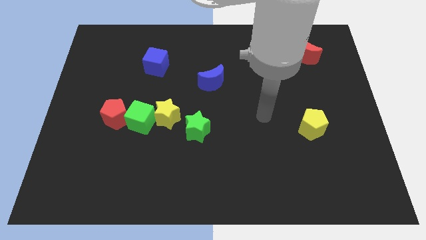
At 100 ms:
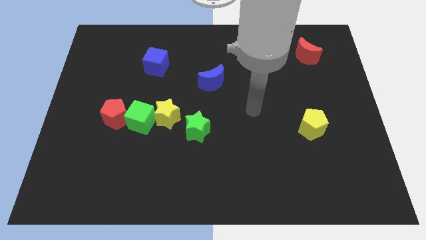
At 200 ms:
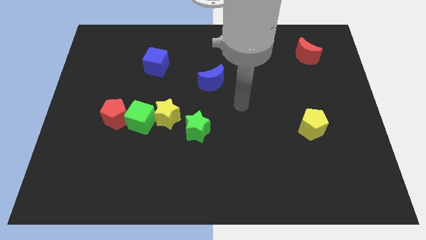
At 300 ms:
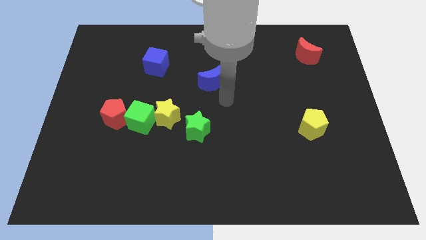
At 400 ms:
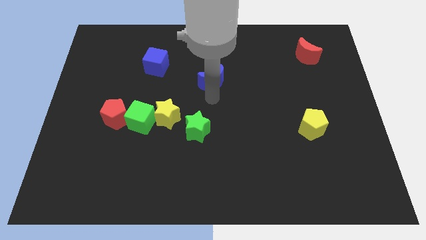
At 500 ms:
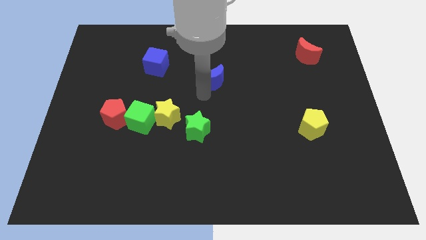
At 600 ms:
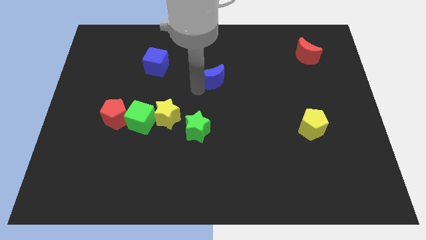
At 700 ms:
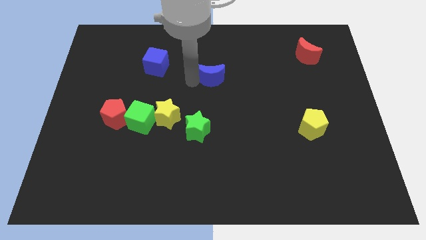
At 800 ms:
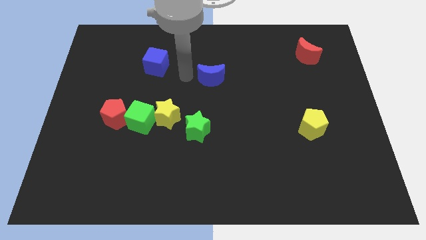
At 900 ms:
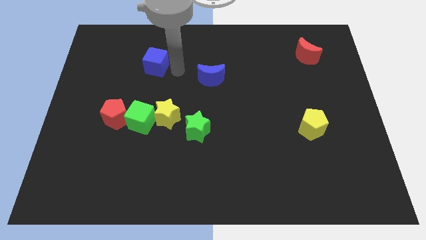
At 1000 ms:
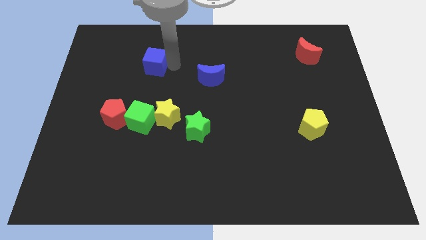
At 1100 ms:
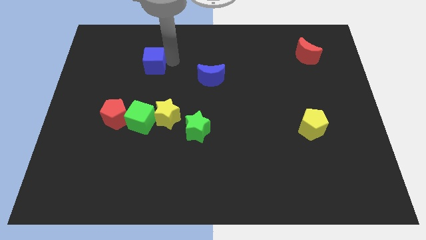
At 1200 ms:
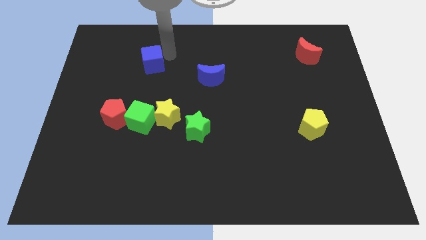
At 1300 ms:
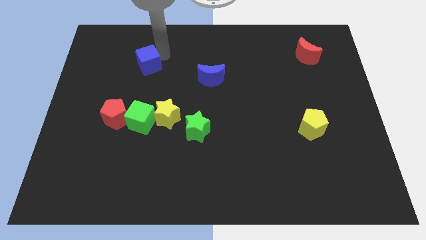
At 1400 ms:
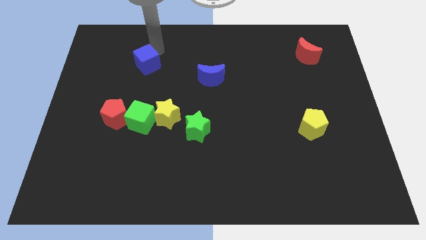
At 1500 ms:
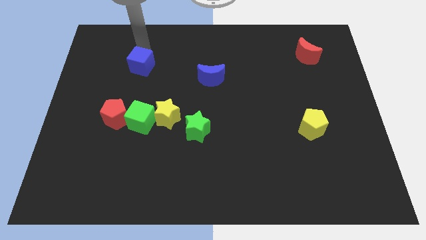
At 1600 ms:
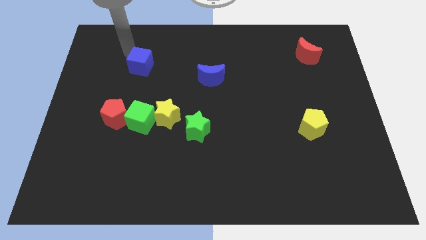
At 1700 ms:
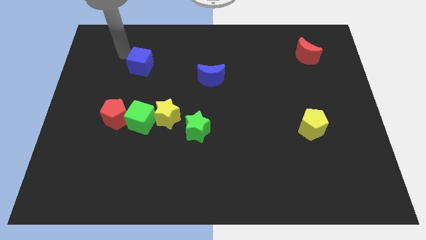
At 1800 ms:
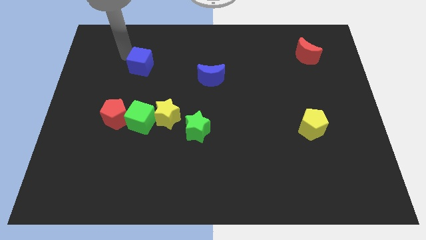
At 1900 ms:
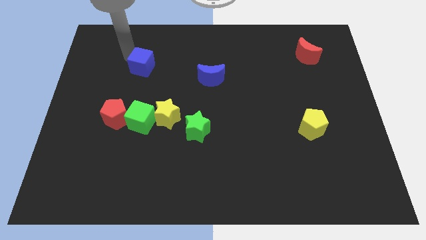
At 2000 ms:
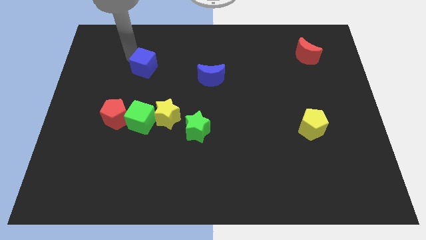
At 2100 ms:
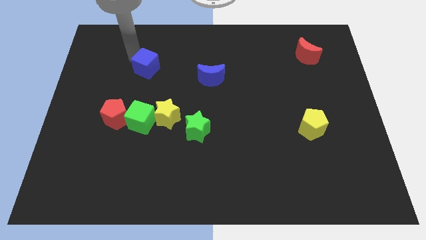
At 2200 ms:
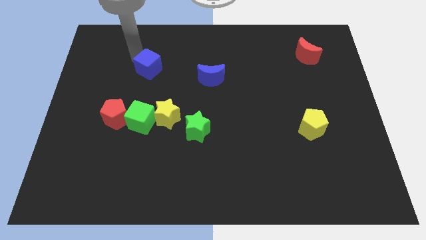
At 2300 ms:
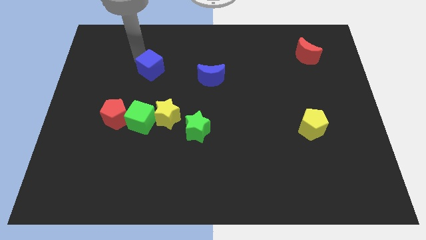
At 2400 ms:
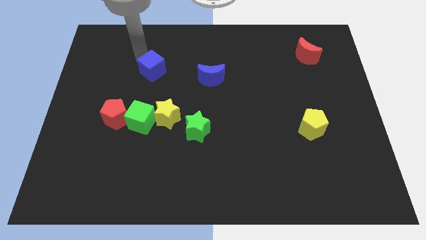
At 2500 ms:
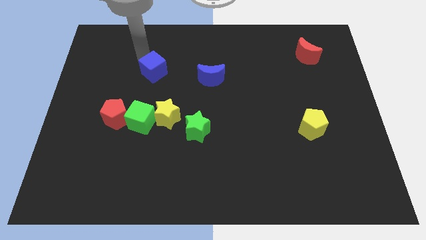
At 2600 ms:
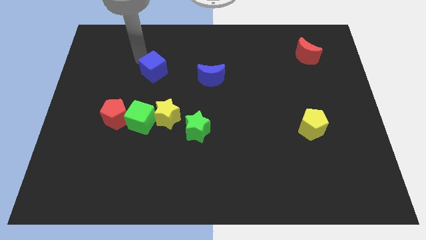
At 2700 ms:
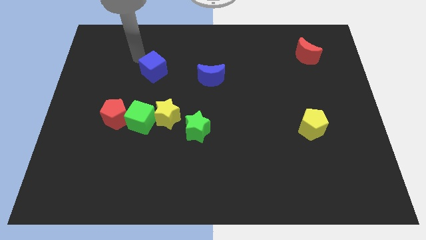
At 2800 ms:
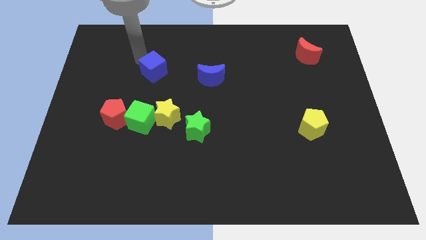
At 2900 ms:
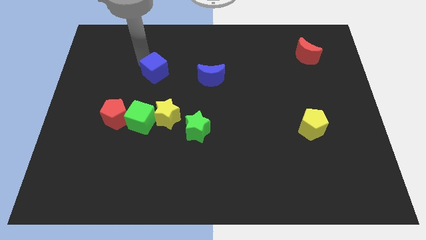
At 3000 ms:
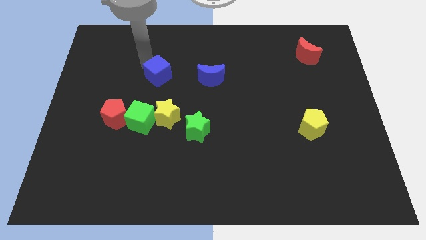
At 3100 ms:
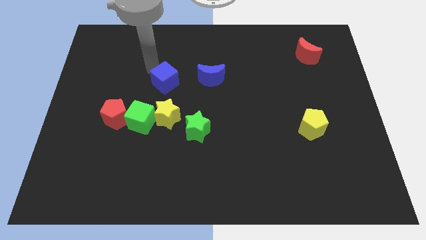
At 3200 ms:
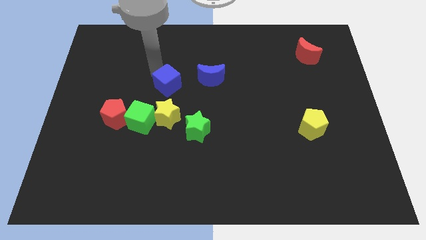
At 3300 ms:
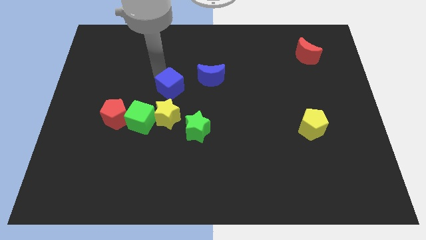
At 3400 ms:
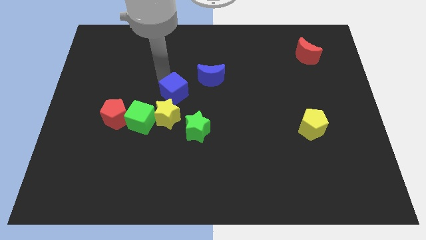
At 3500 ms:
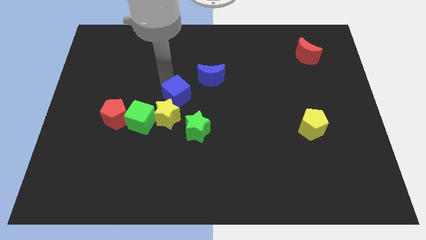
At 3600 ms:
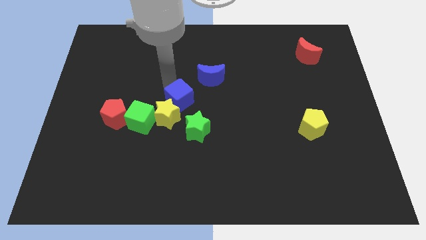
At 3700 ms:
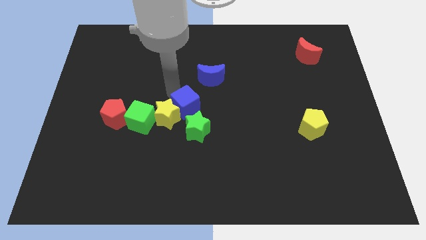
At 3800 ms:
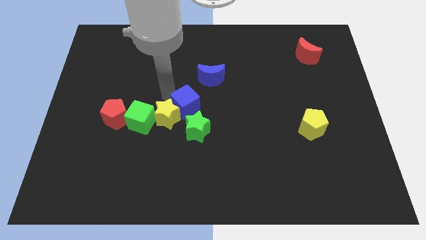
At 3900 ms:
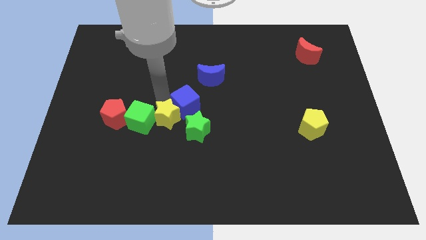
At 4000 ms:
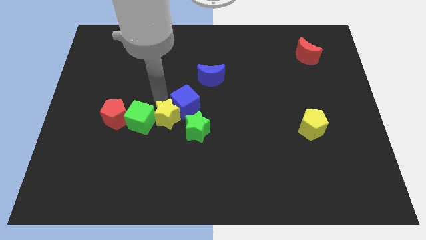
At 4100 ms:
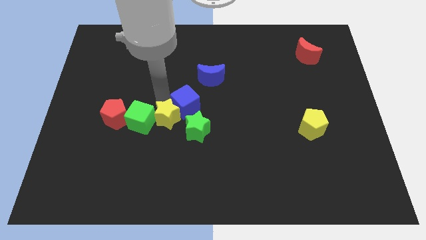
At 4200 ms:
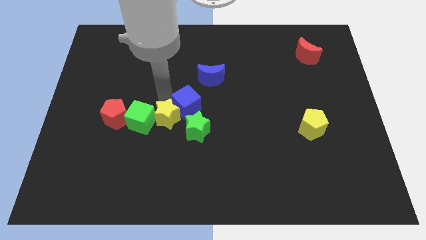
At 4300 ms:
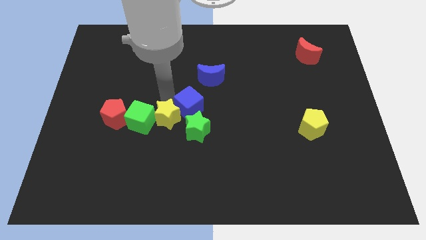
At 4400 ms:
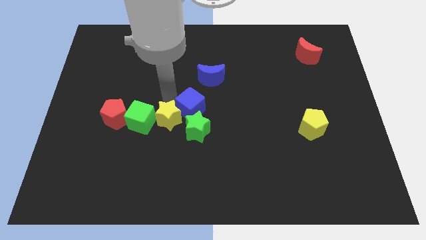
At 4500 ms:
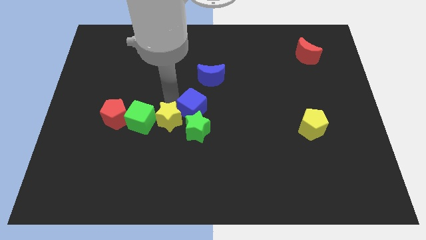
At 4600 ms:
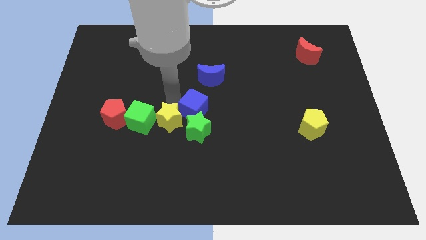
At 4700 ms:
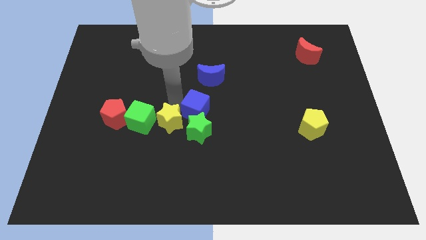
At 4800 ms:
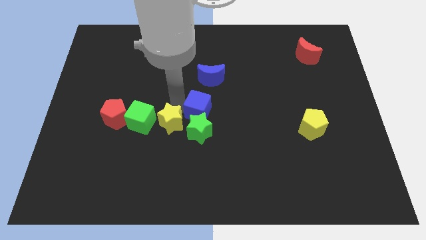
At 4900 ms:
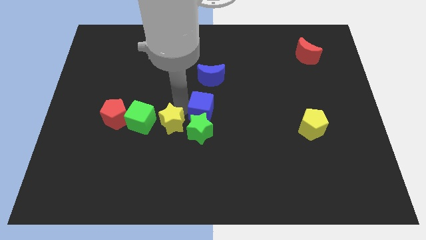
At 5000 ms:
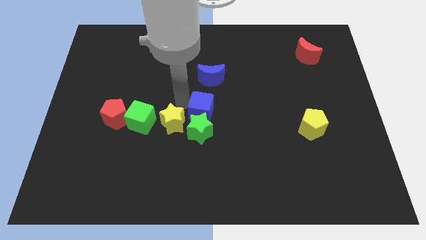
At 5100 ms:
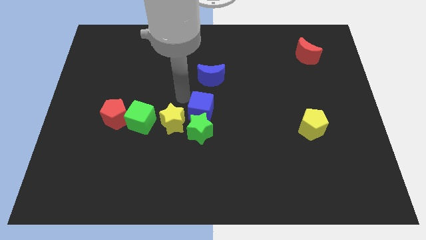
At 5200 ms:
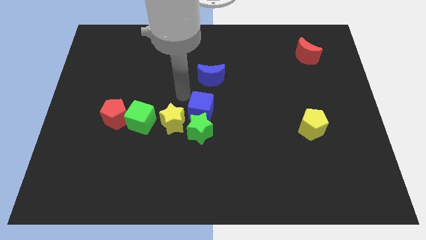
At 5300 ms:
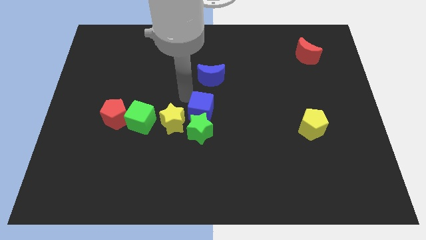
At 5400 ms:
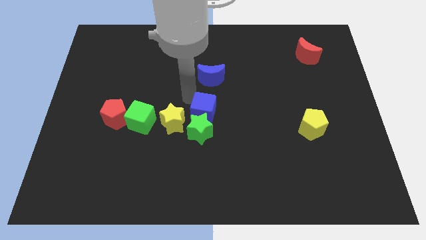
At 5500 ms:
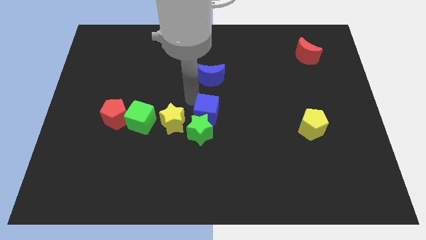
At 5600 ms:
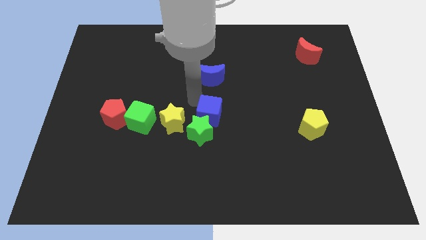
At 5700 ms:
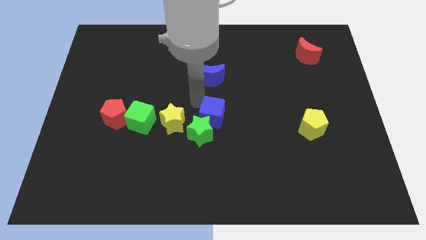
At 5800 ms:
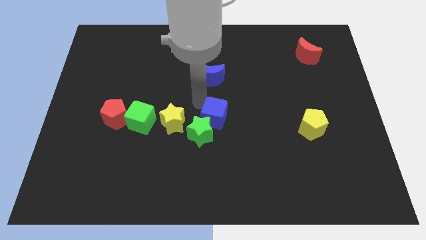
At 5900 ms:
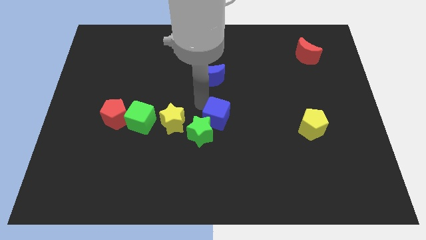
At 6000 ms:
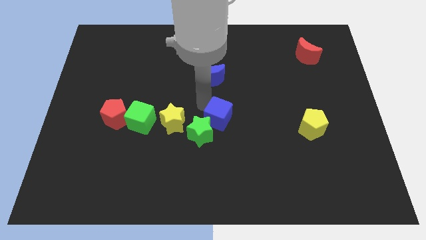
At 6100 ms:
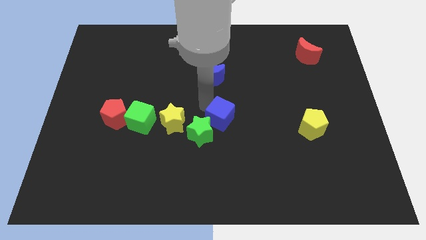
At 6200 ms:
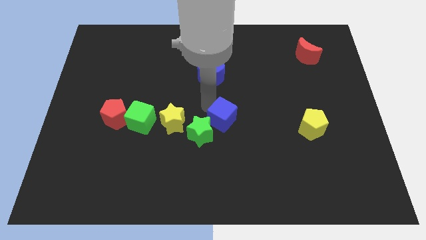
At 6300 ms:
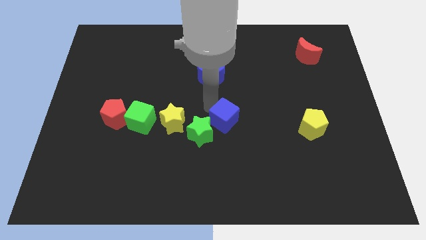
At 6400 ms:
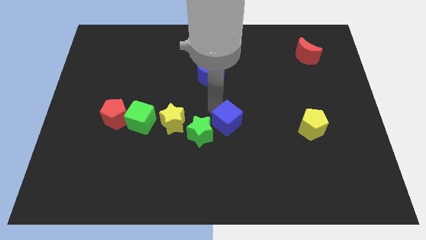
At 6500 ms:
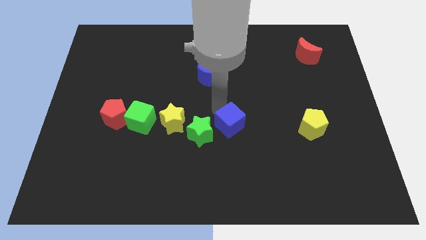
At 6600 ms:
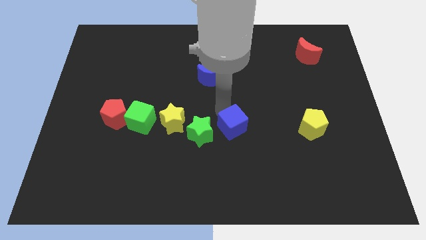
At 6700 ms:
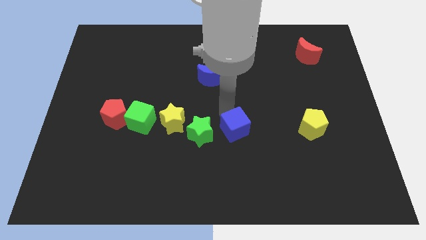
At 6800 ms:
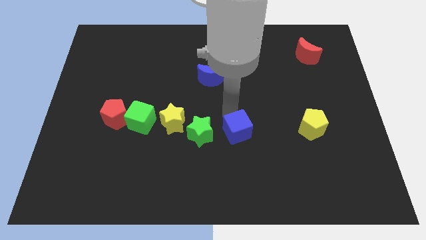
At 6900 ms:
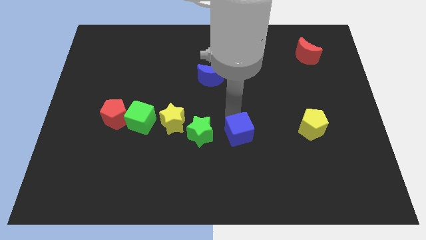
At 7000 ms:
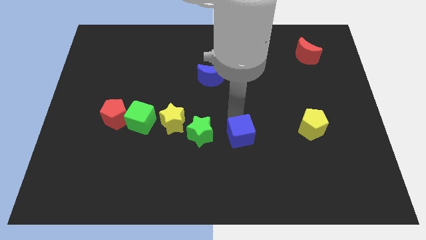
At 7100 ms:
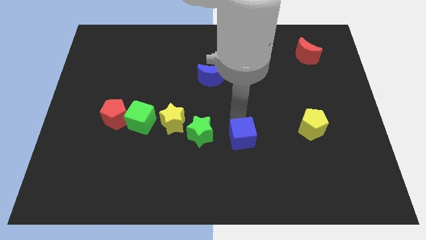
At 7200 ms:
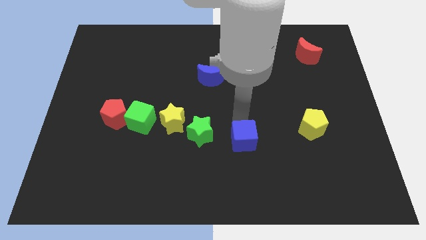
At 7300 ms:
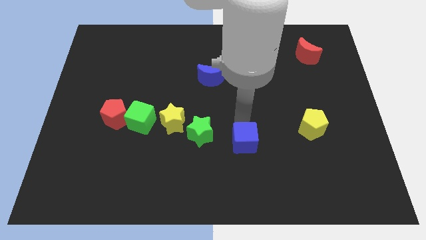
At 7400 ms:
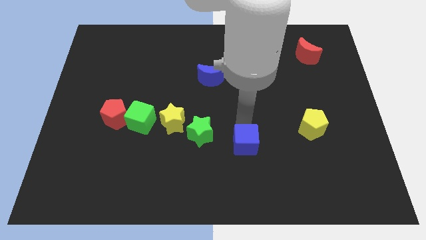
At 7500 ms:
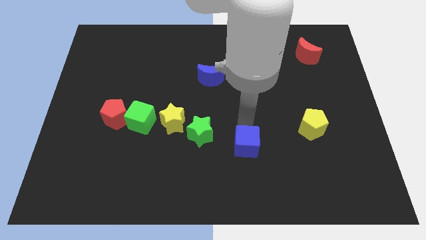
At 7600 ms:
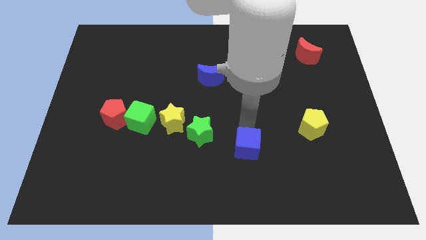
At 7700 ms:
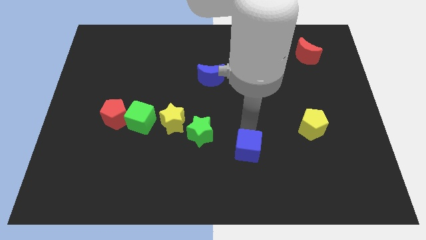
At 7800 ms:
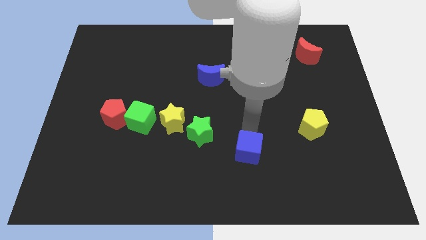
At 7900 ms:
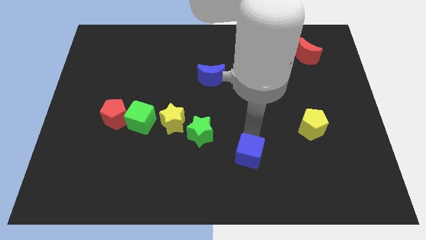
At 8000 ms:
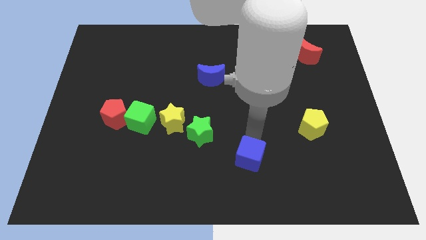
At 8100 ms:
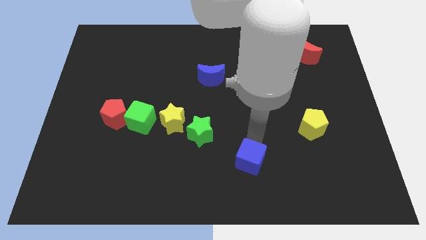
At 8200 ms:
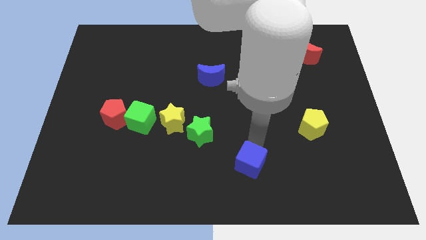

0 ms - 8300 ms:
slide the blue cube to the bottom side
